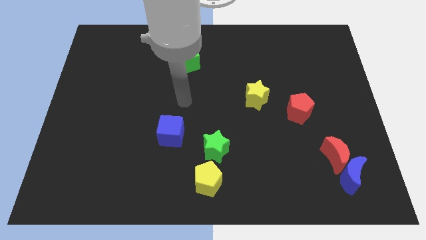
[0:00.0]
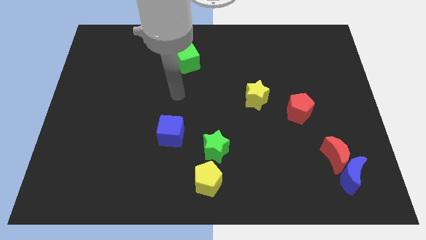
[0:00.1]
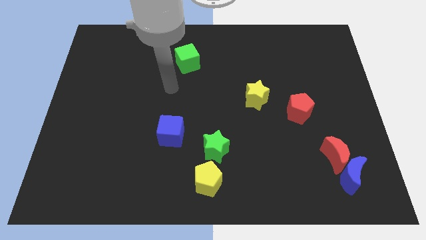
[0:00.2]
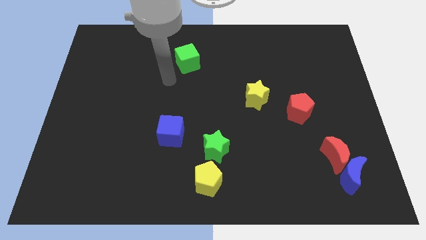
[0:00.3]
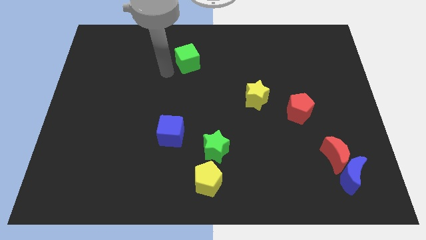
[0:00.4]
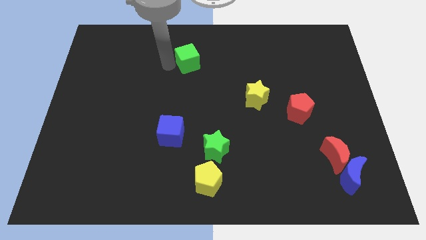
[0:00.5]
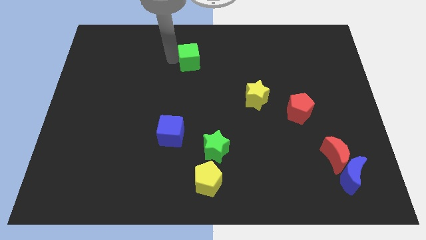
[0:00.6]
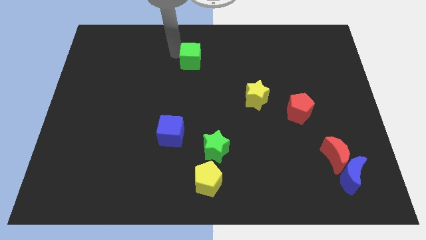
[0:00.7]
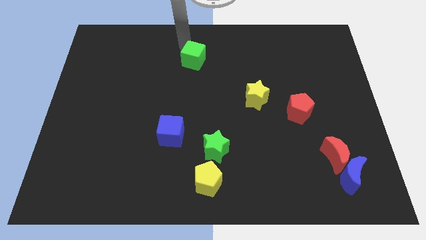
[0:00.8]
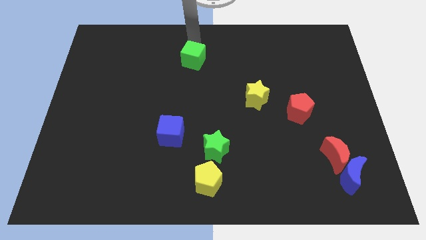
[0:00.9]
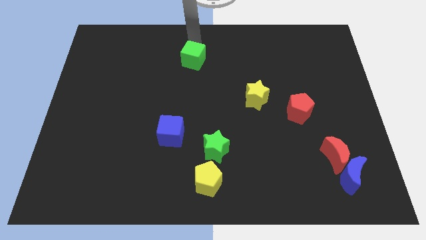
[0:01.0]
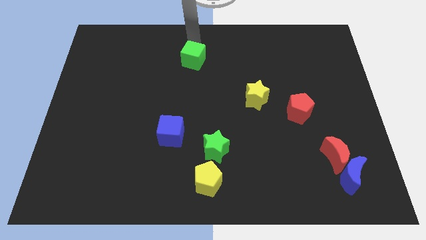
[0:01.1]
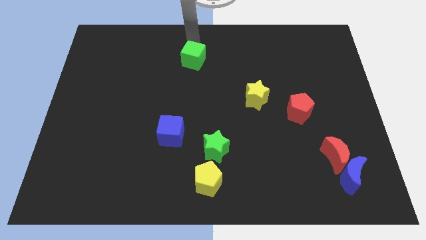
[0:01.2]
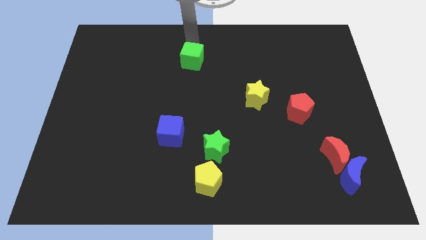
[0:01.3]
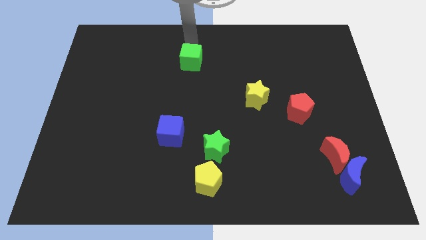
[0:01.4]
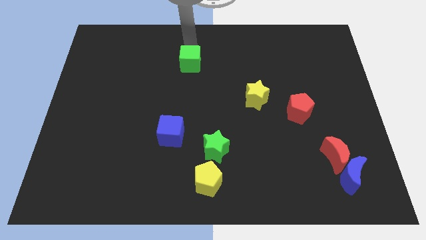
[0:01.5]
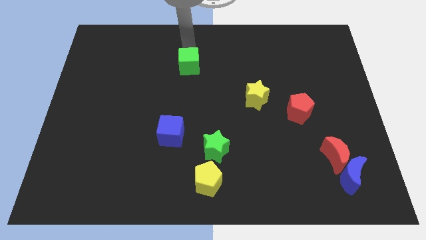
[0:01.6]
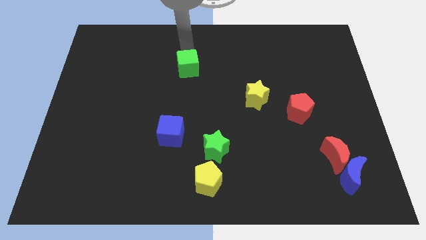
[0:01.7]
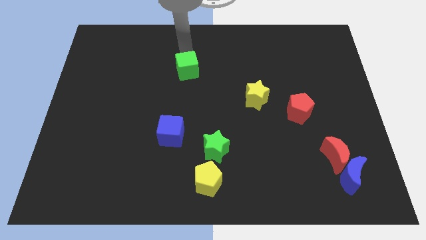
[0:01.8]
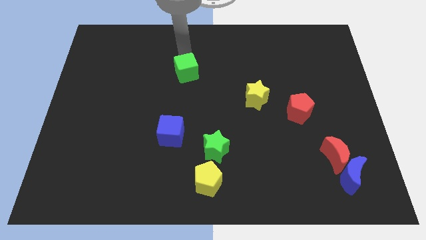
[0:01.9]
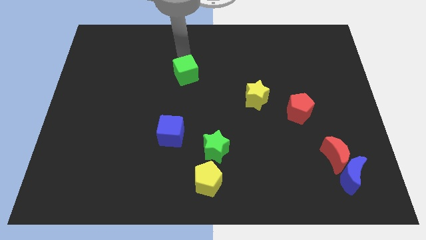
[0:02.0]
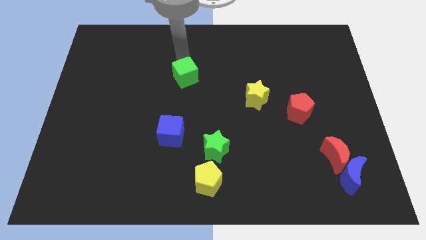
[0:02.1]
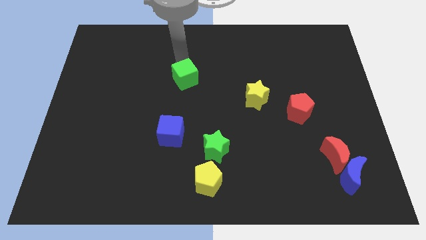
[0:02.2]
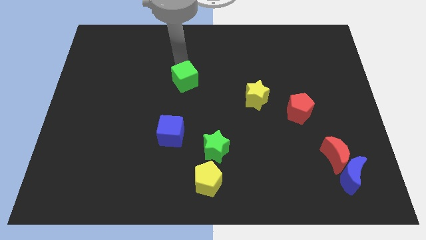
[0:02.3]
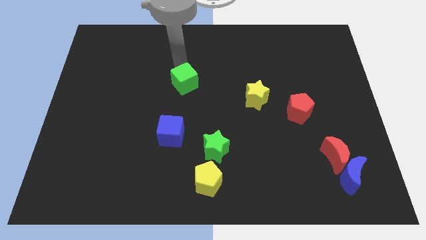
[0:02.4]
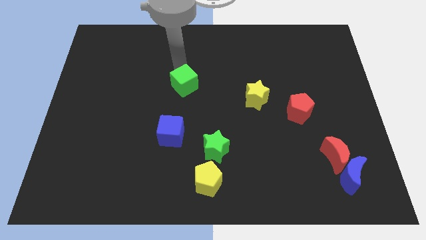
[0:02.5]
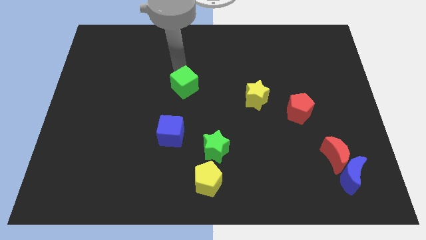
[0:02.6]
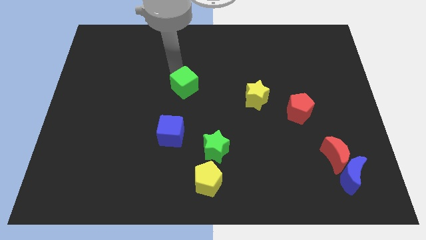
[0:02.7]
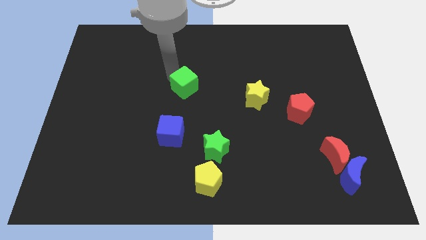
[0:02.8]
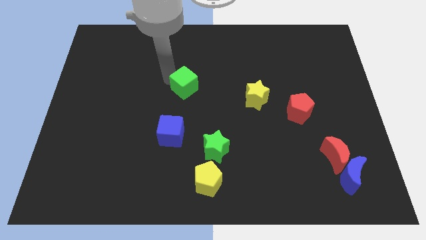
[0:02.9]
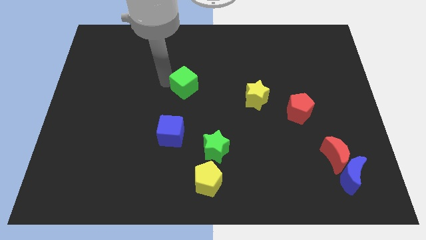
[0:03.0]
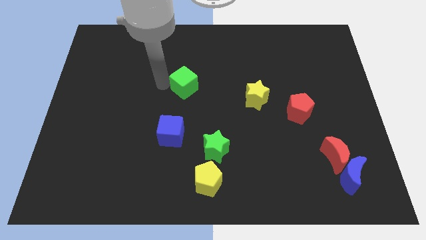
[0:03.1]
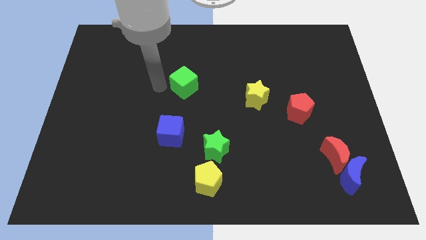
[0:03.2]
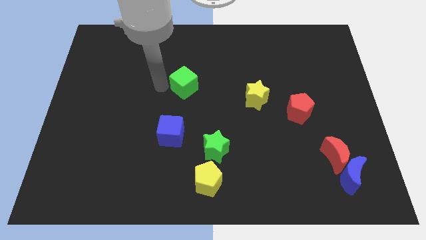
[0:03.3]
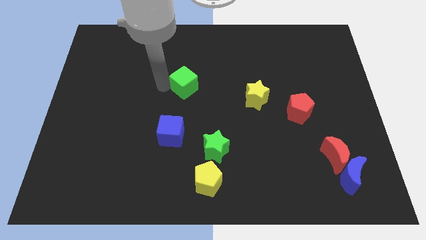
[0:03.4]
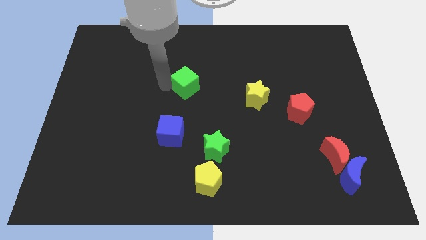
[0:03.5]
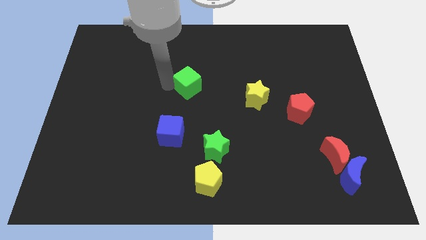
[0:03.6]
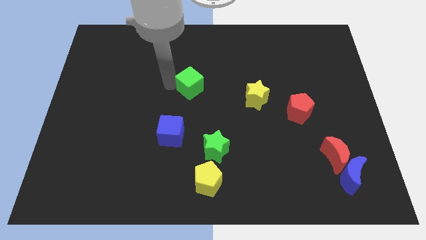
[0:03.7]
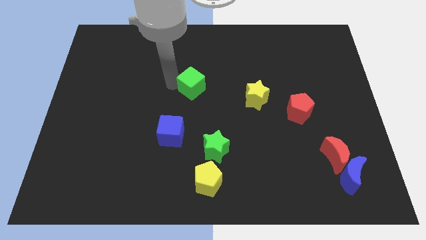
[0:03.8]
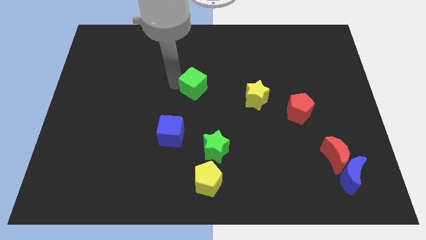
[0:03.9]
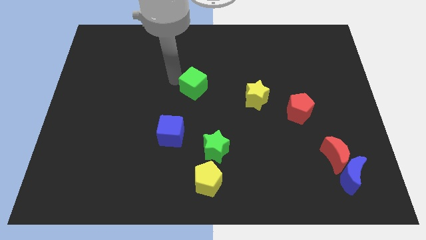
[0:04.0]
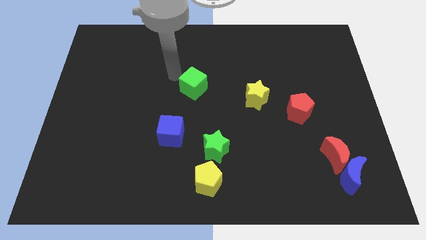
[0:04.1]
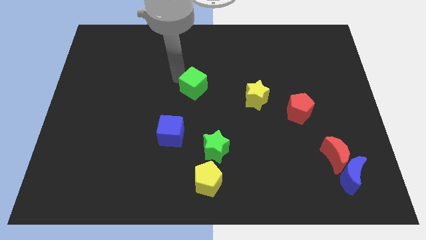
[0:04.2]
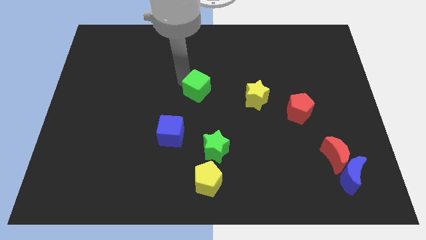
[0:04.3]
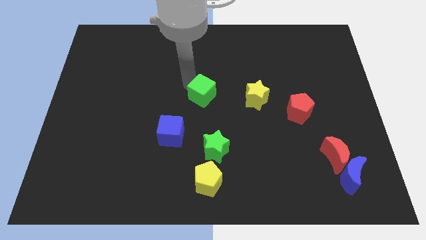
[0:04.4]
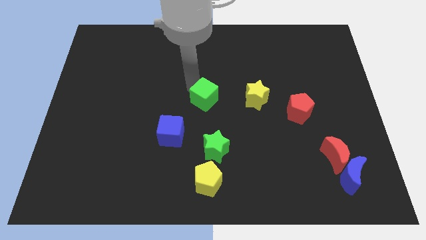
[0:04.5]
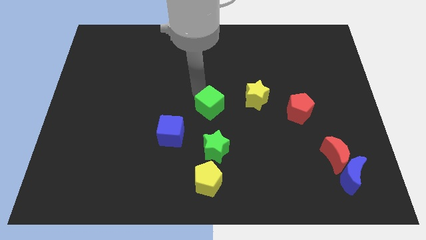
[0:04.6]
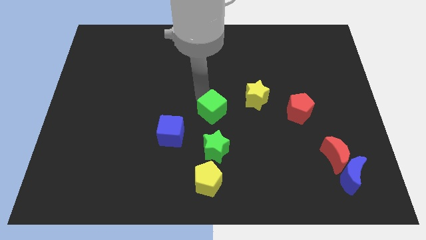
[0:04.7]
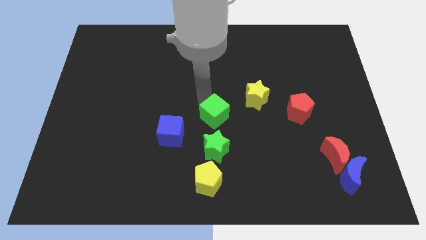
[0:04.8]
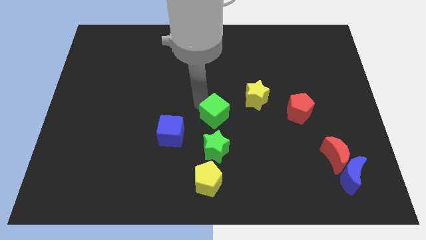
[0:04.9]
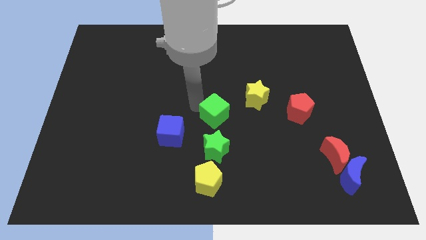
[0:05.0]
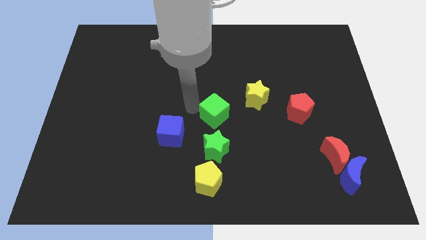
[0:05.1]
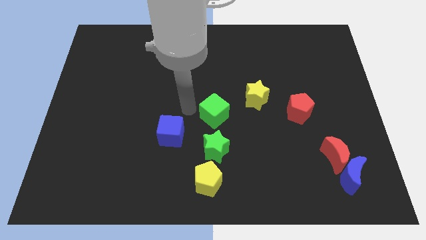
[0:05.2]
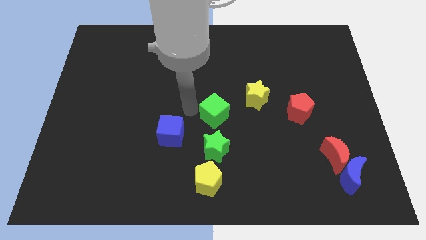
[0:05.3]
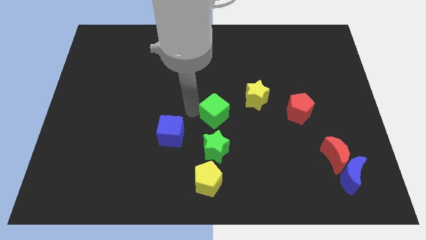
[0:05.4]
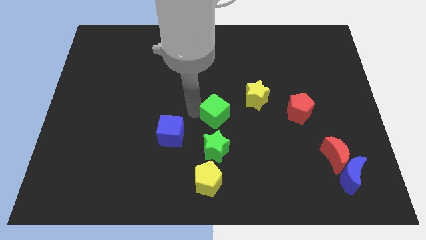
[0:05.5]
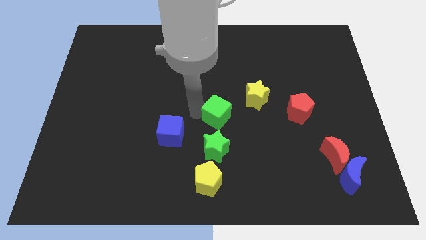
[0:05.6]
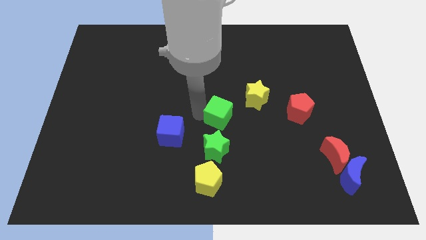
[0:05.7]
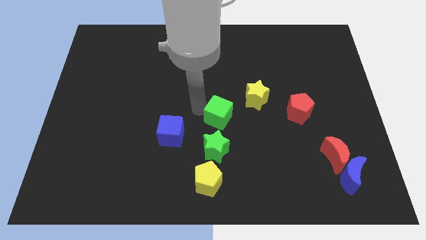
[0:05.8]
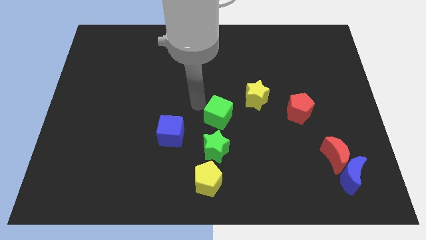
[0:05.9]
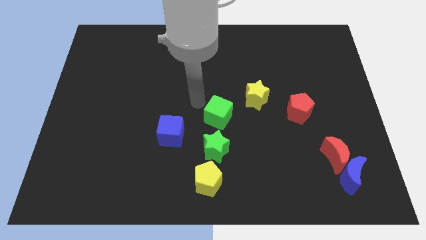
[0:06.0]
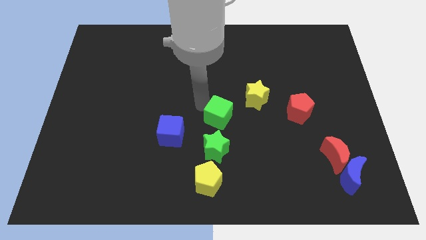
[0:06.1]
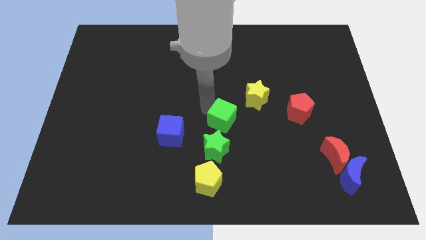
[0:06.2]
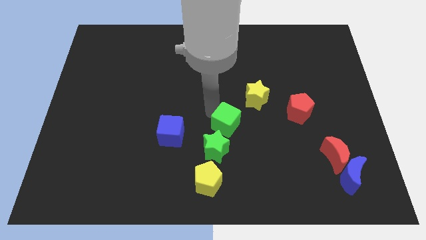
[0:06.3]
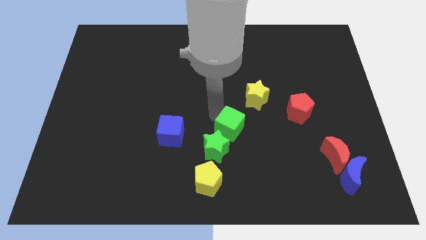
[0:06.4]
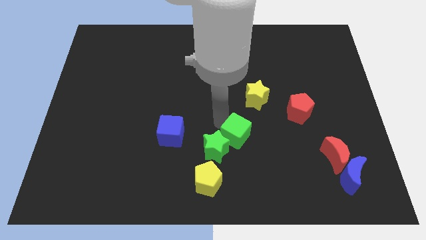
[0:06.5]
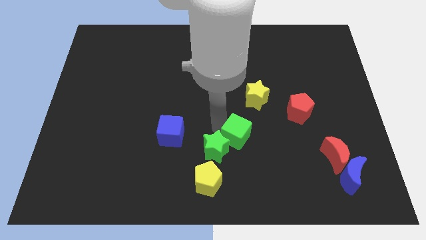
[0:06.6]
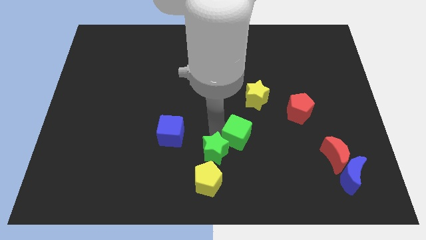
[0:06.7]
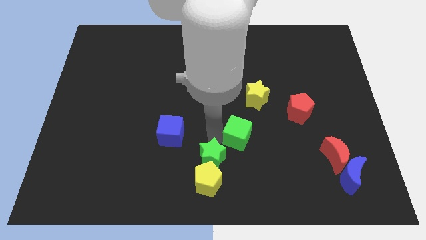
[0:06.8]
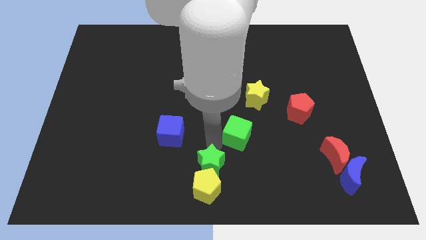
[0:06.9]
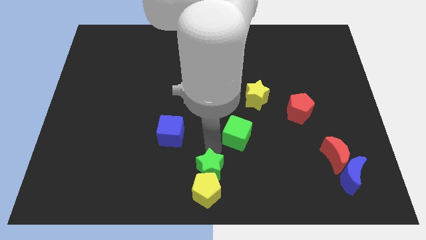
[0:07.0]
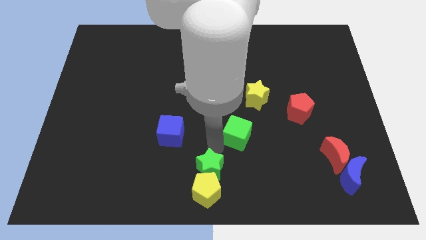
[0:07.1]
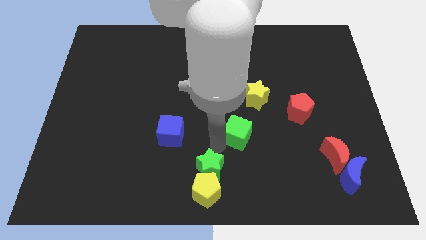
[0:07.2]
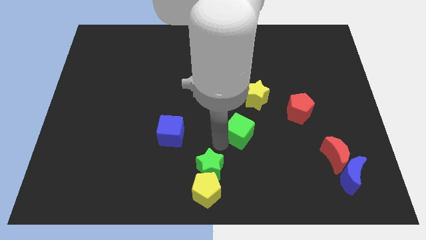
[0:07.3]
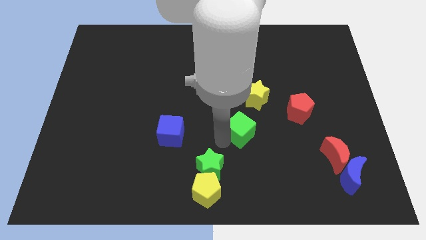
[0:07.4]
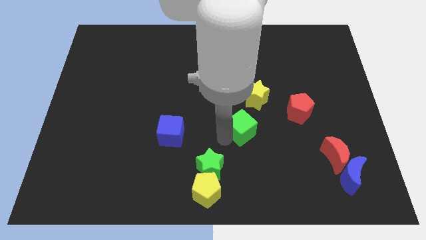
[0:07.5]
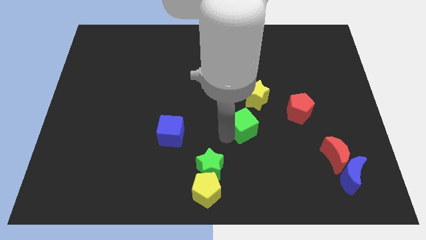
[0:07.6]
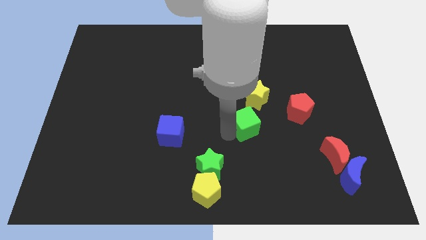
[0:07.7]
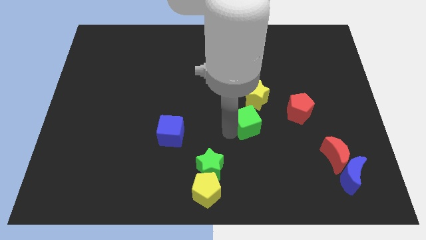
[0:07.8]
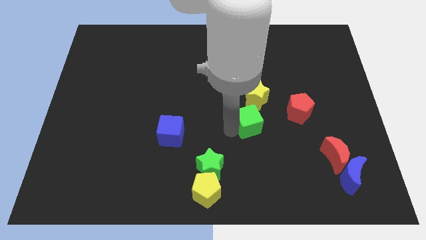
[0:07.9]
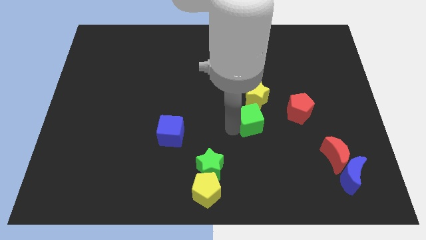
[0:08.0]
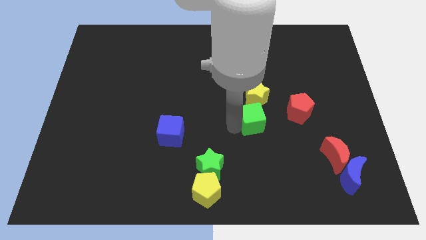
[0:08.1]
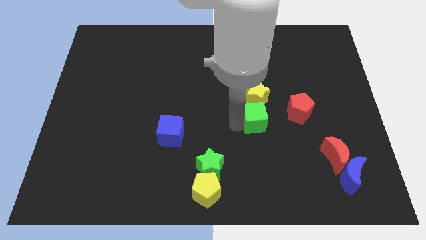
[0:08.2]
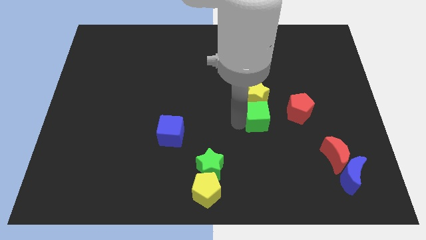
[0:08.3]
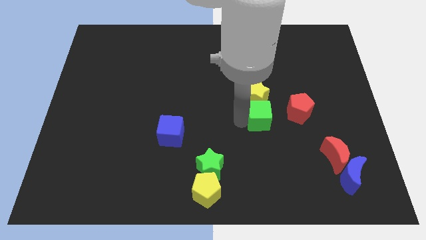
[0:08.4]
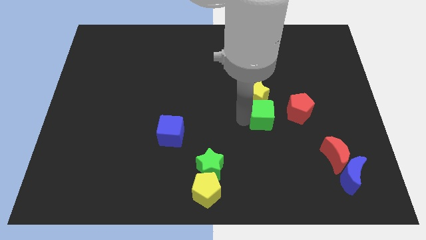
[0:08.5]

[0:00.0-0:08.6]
move the green cube to the bottom left of the red pentagon
